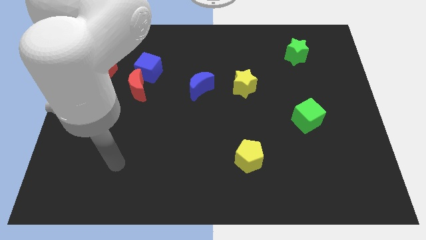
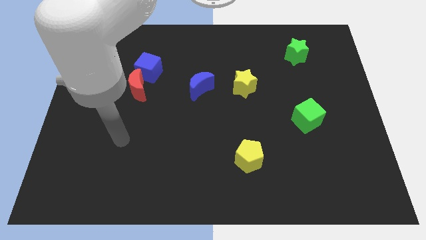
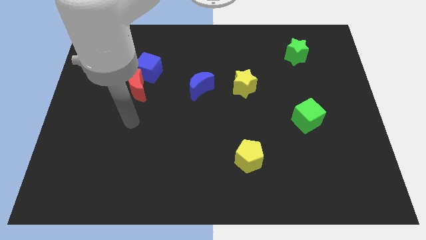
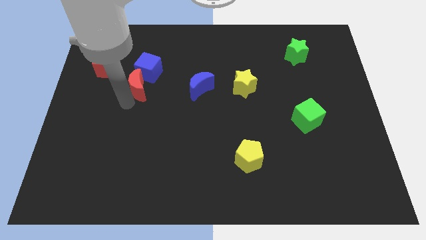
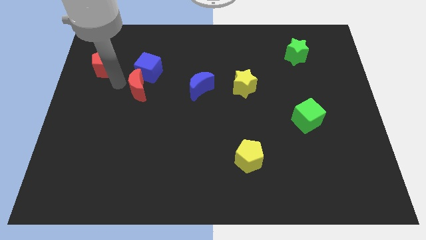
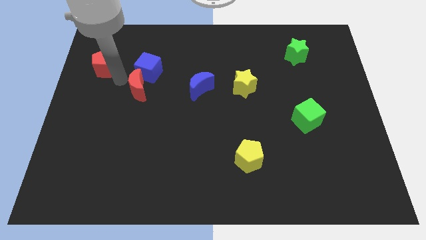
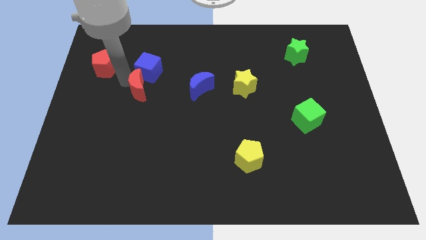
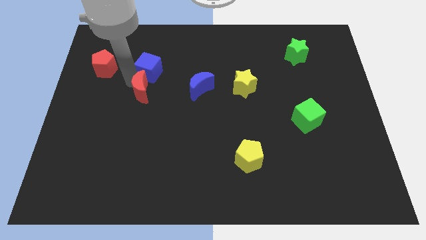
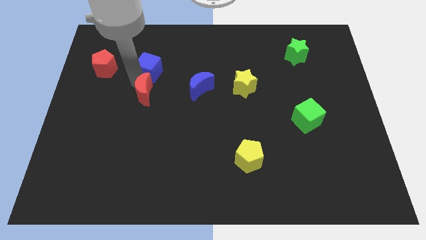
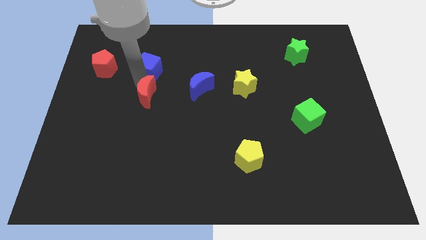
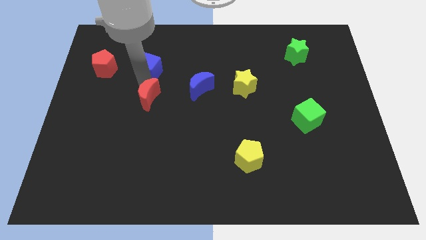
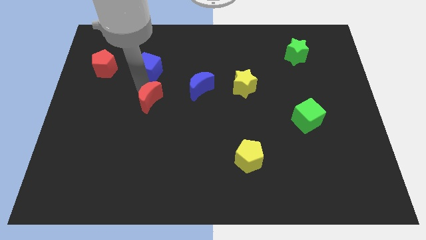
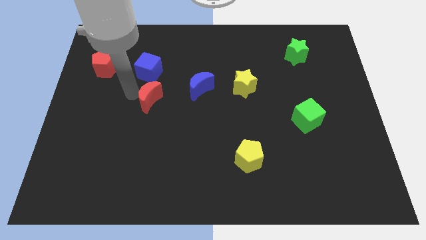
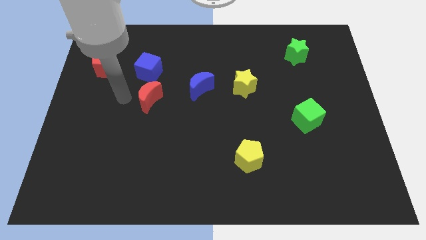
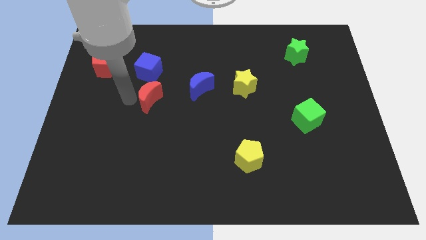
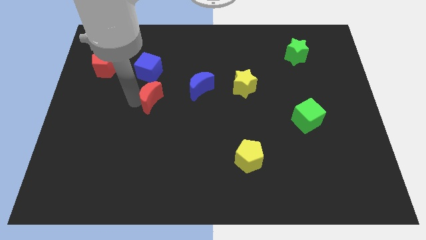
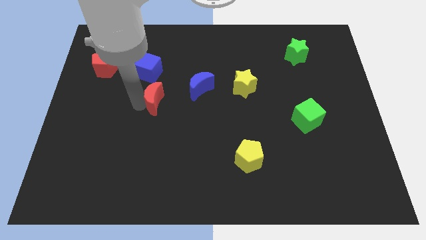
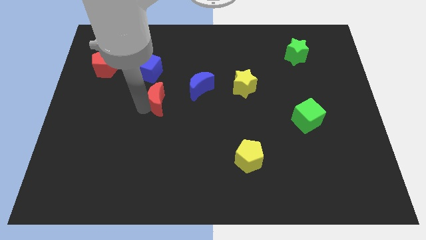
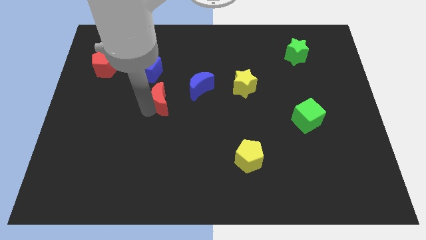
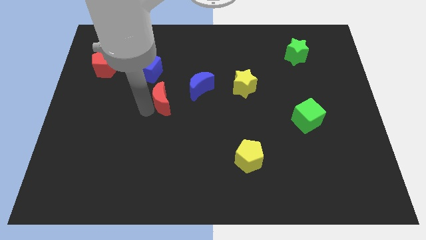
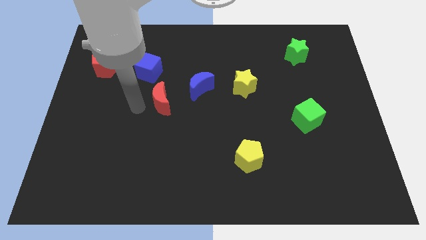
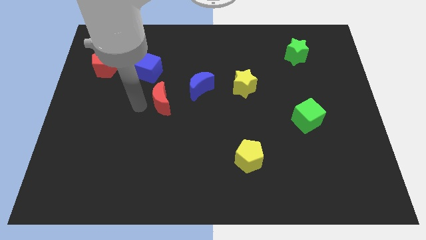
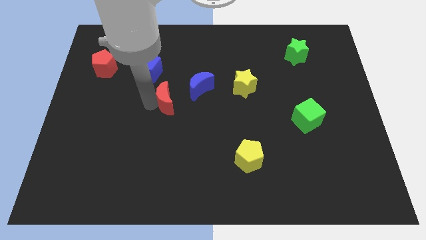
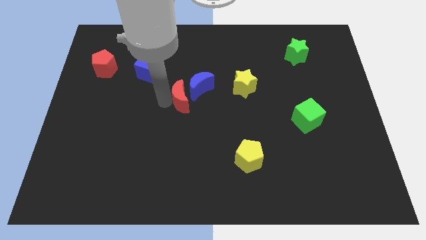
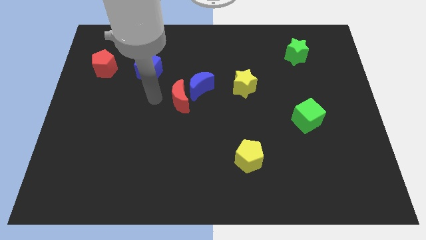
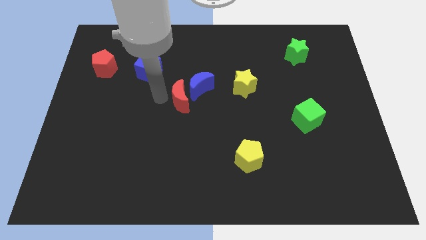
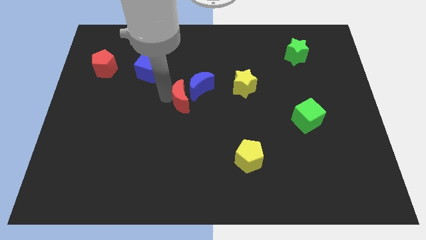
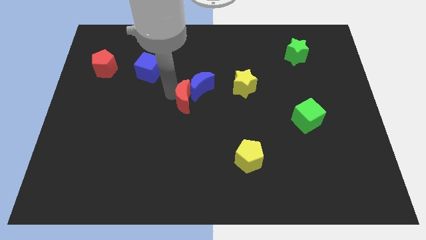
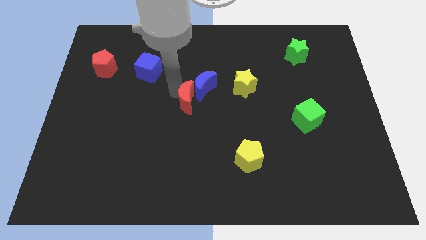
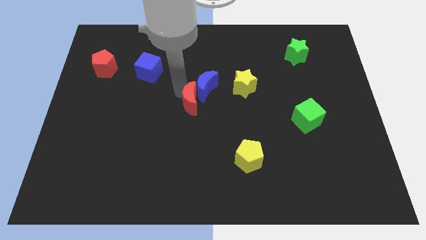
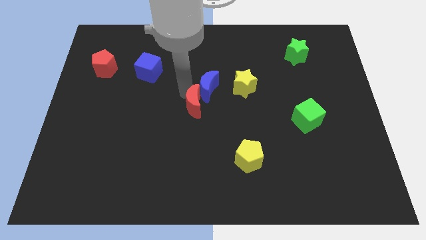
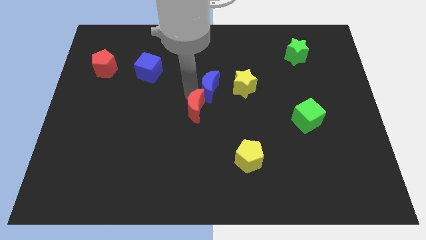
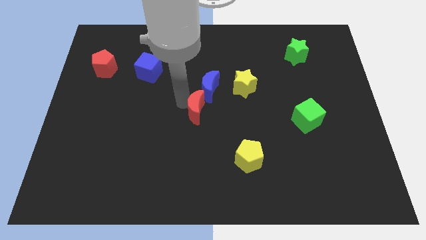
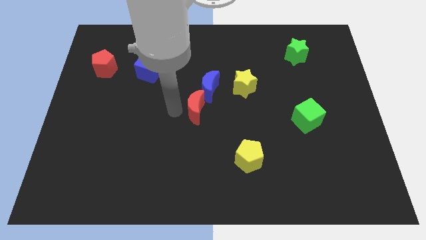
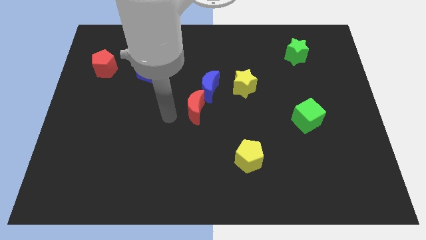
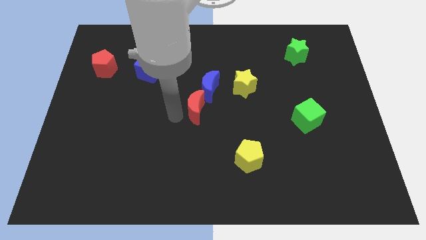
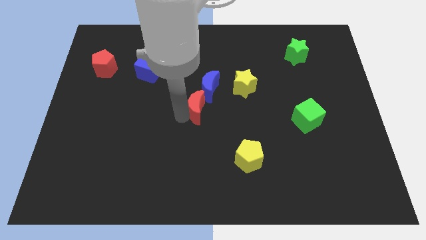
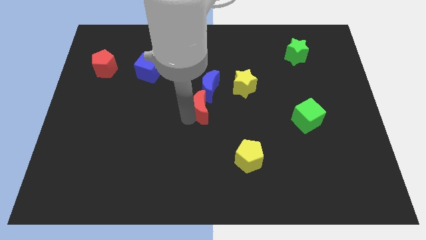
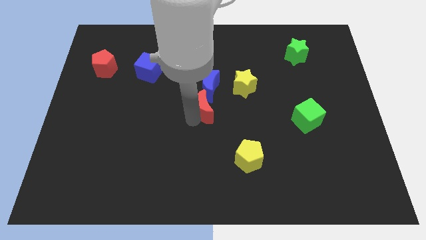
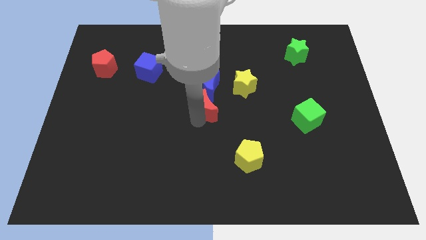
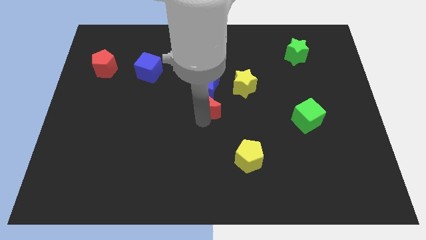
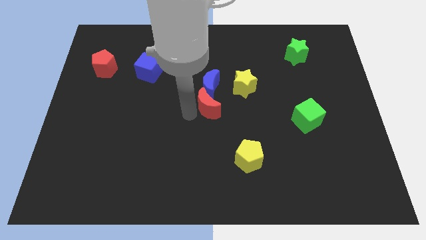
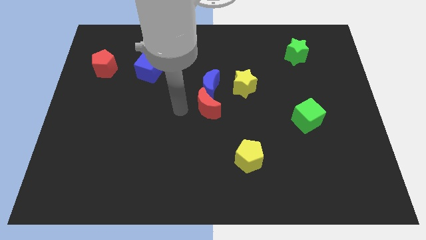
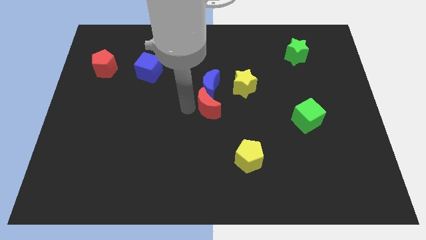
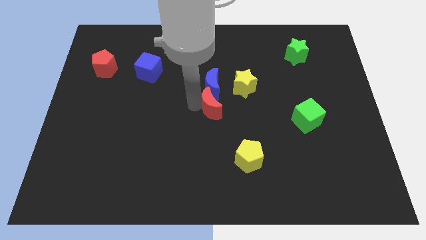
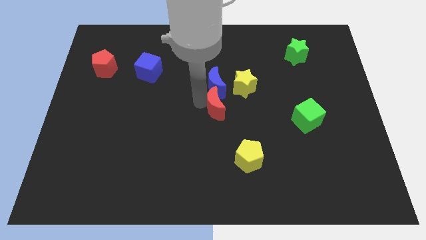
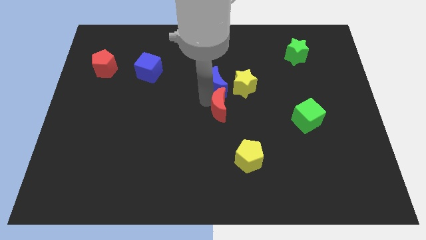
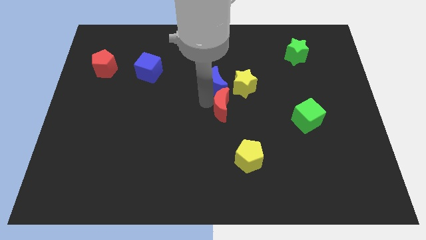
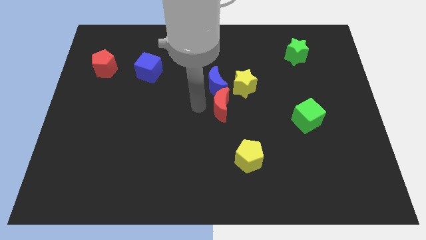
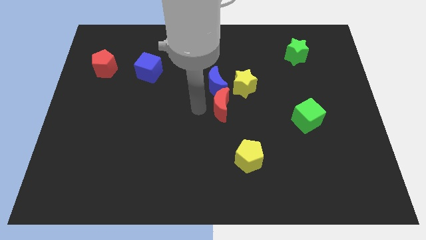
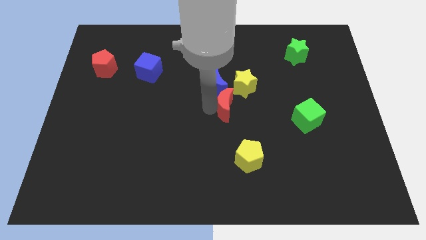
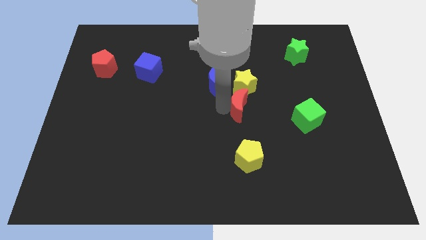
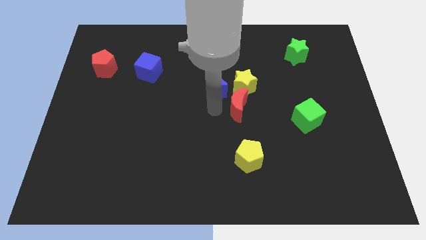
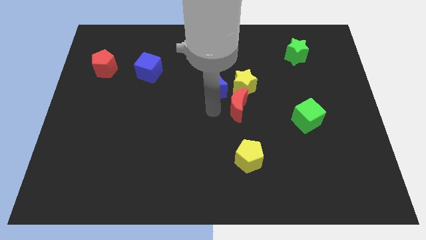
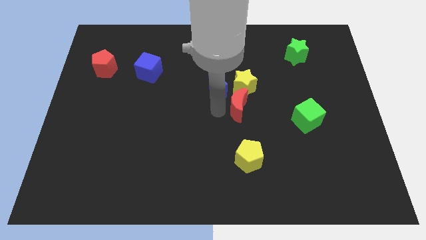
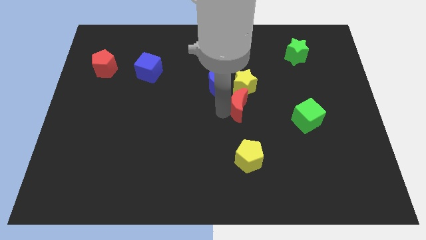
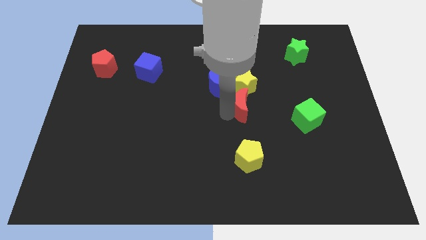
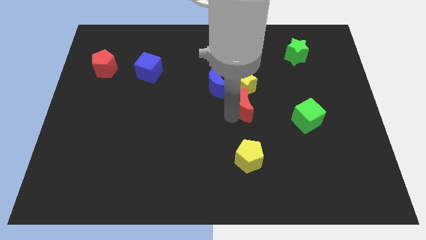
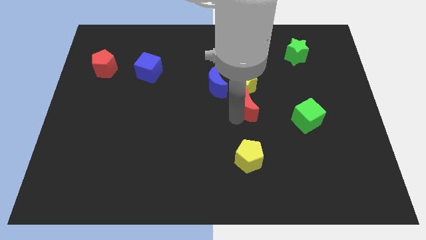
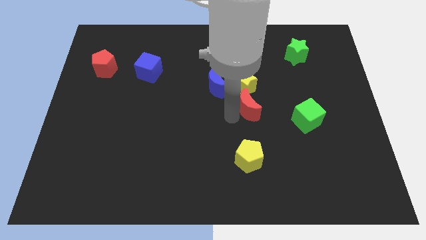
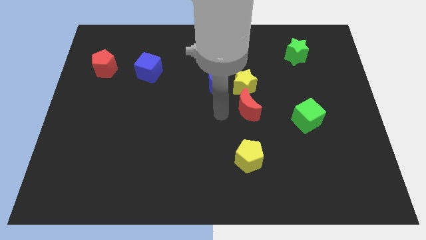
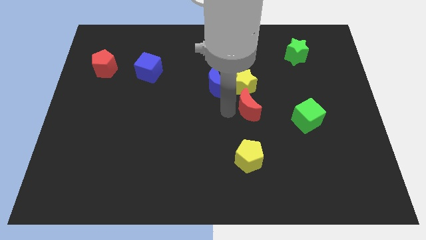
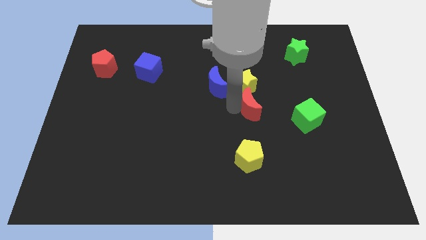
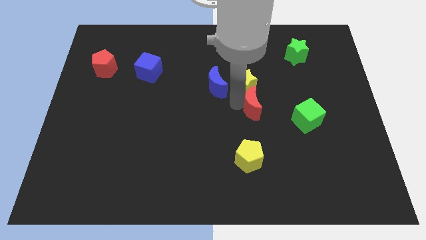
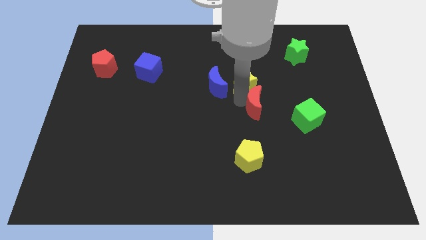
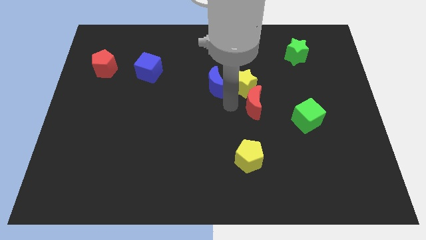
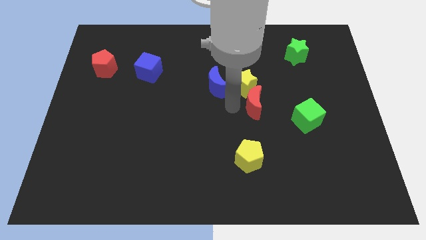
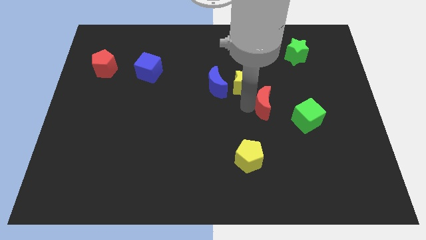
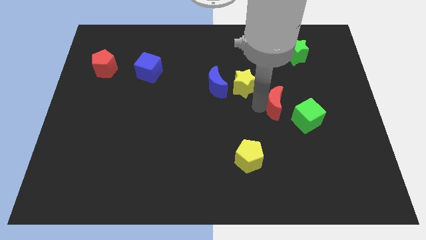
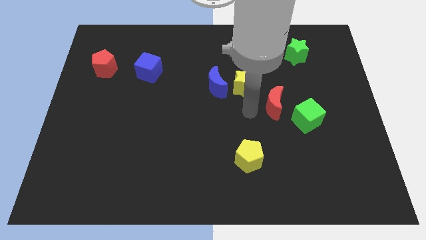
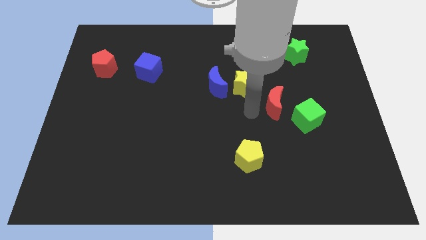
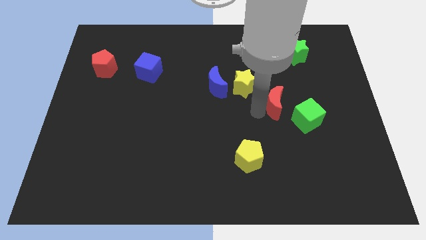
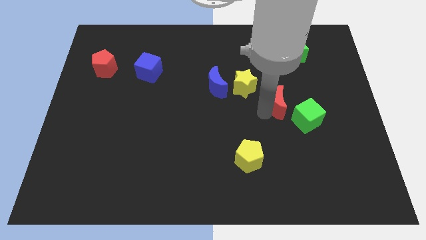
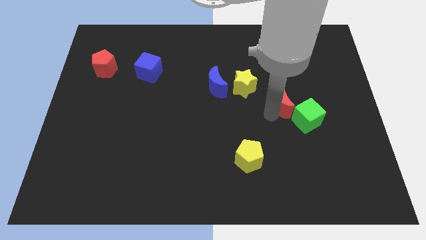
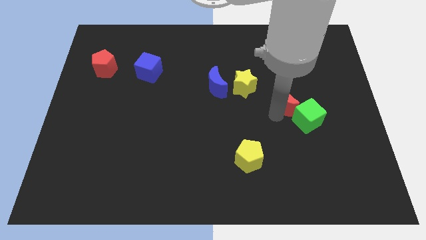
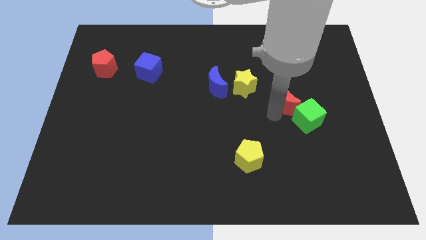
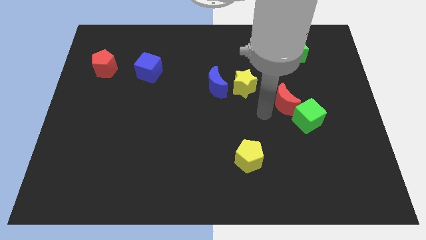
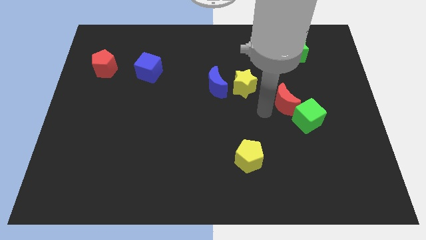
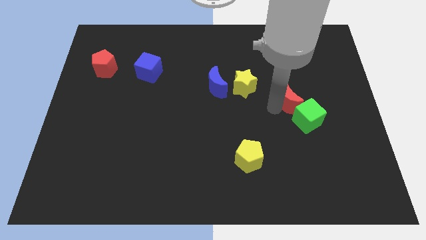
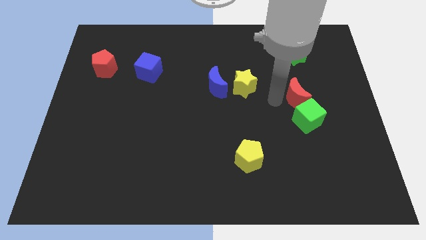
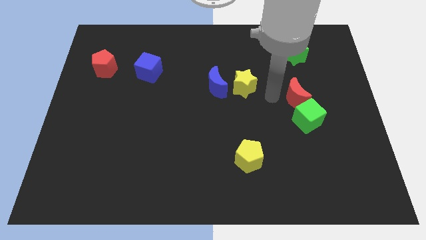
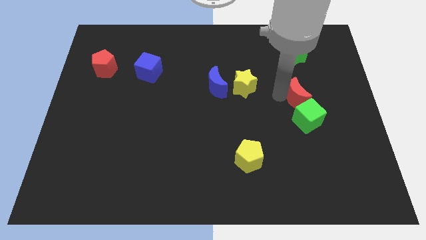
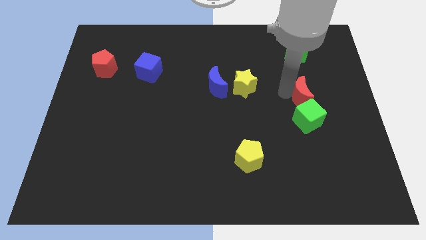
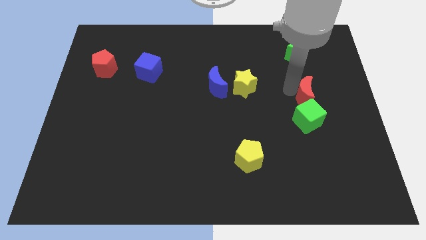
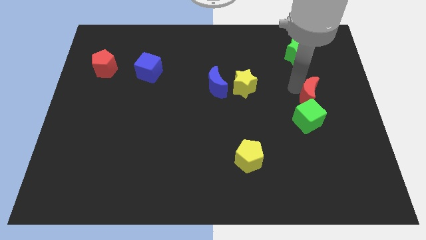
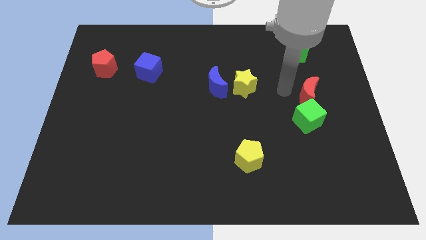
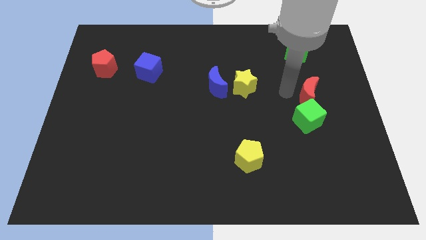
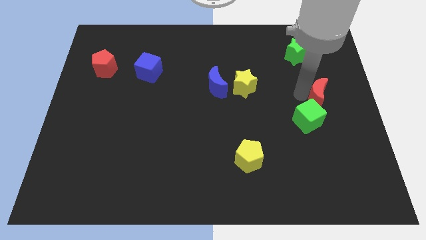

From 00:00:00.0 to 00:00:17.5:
push the red moon to the right side of the board
